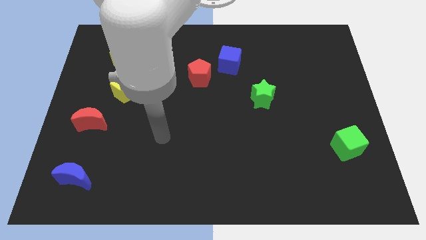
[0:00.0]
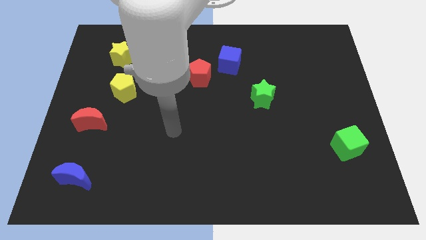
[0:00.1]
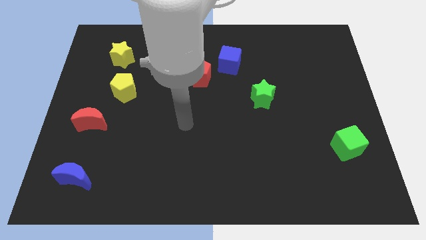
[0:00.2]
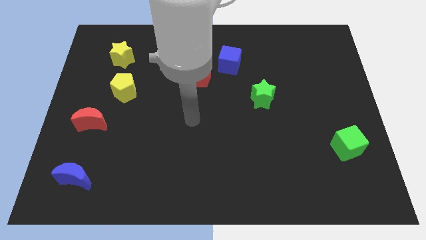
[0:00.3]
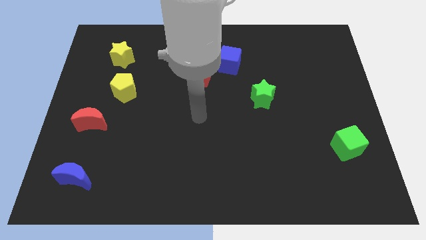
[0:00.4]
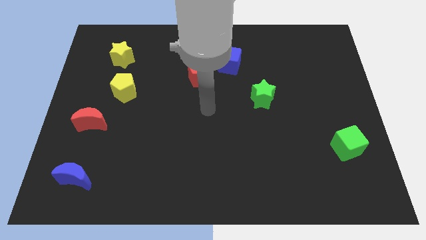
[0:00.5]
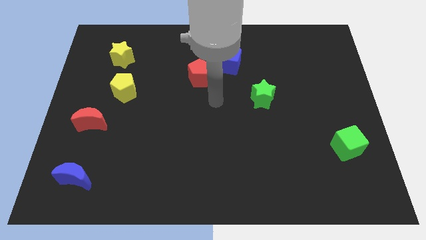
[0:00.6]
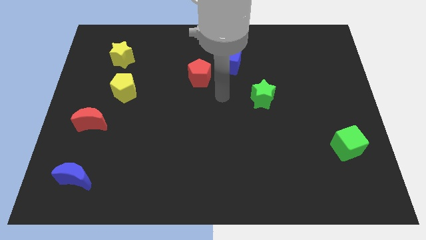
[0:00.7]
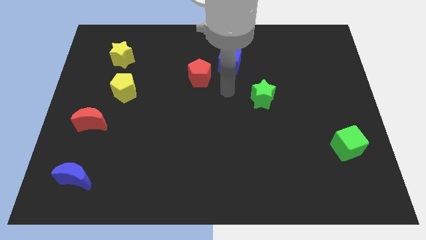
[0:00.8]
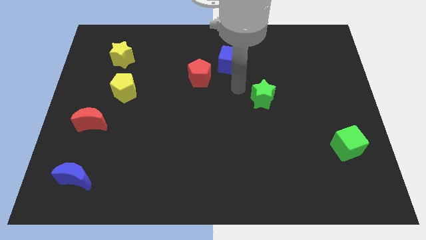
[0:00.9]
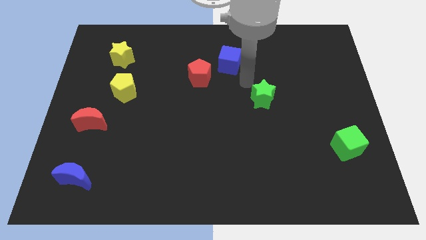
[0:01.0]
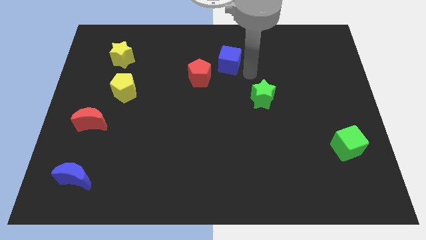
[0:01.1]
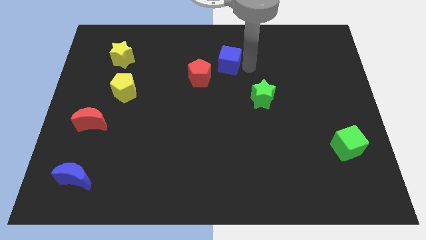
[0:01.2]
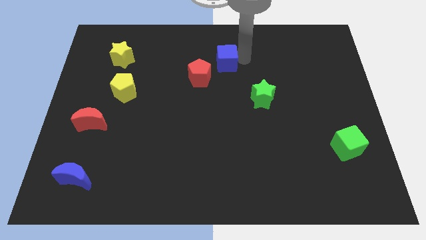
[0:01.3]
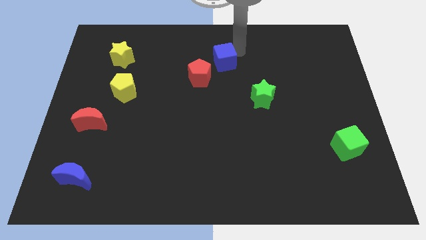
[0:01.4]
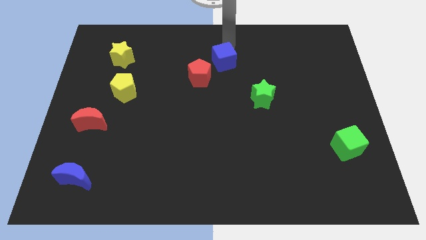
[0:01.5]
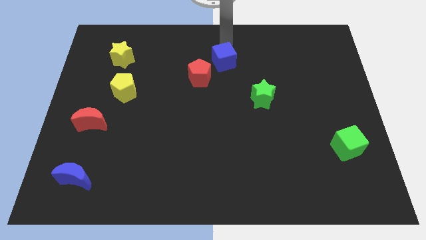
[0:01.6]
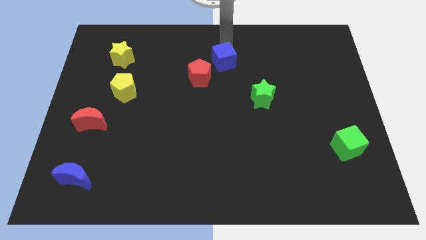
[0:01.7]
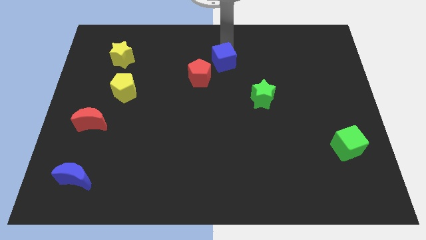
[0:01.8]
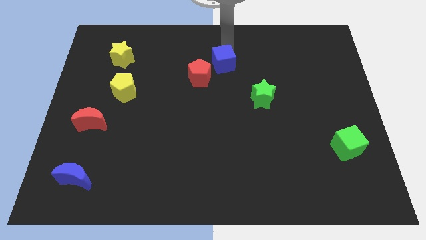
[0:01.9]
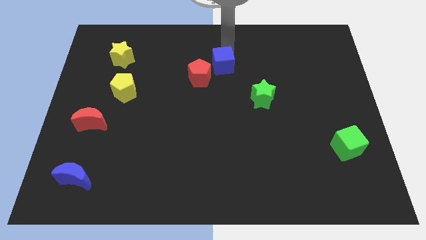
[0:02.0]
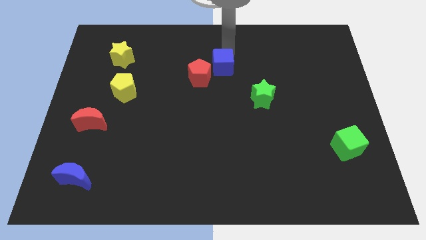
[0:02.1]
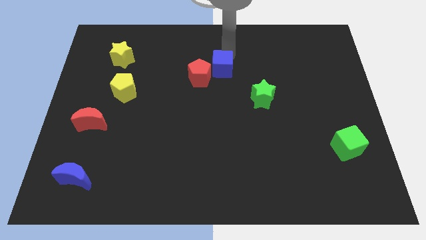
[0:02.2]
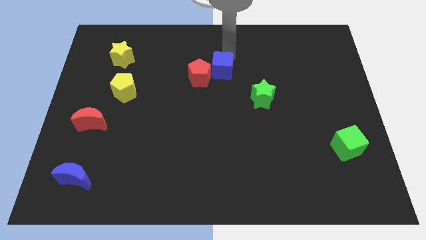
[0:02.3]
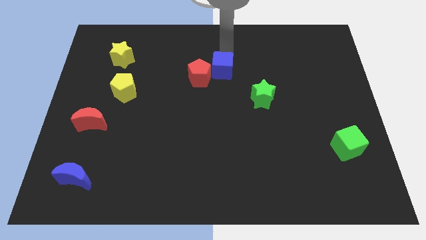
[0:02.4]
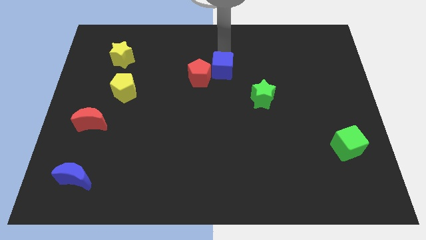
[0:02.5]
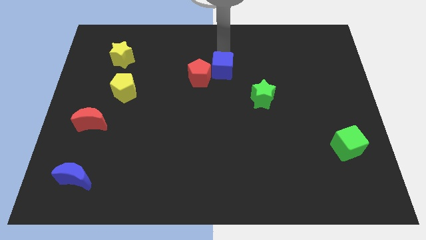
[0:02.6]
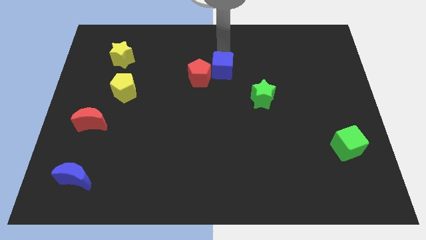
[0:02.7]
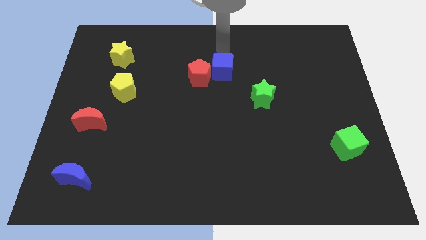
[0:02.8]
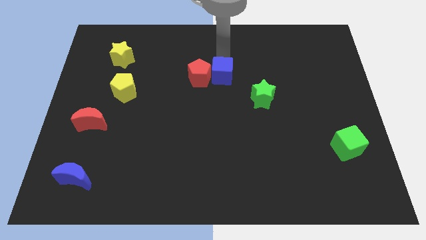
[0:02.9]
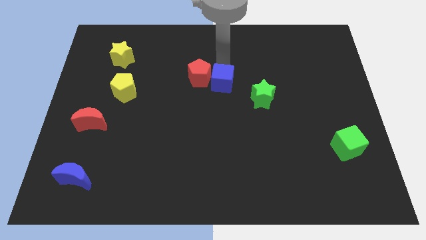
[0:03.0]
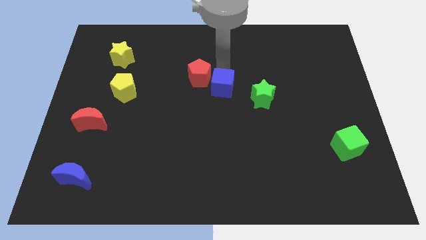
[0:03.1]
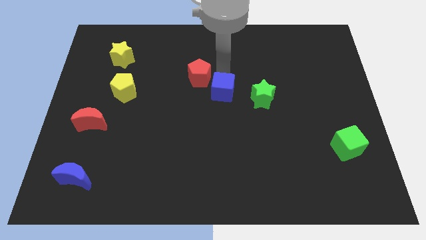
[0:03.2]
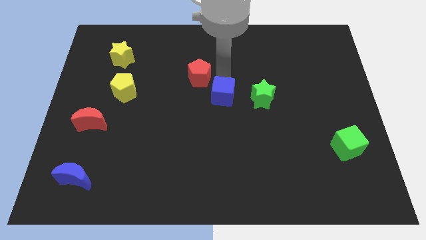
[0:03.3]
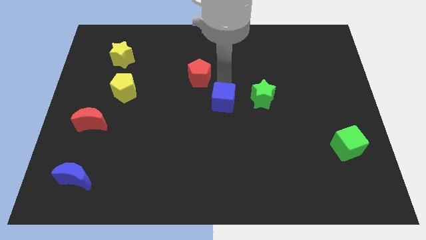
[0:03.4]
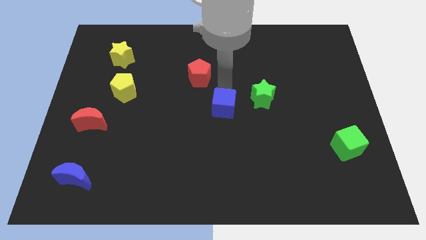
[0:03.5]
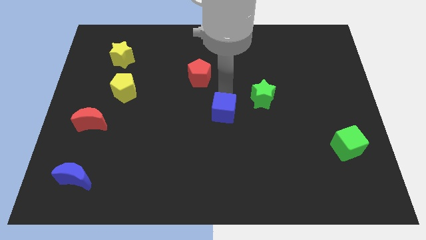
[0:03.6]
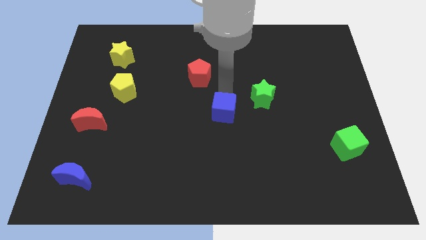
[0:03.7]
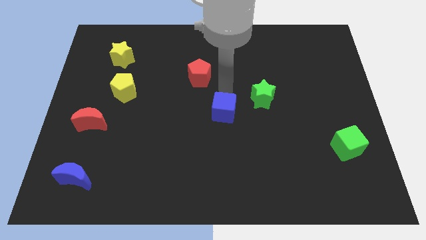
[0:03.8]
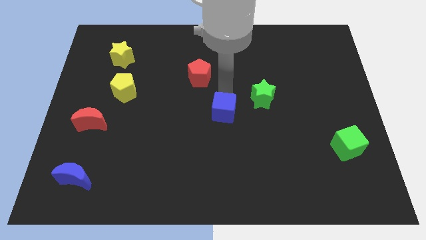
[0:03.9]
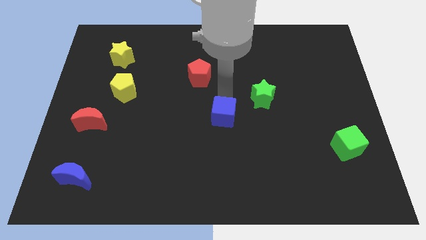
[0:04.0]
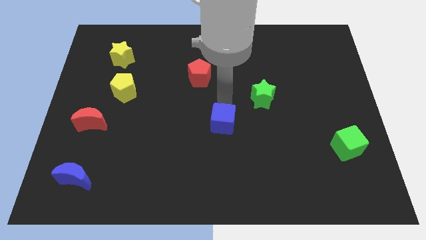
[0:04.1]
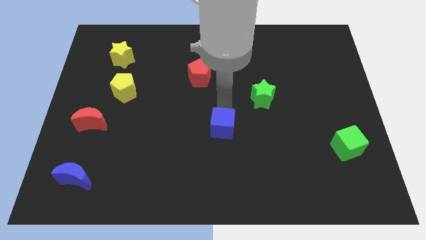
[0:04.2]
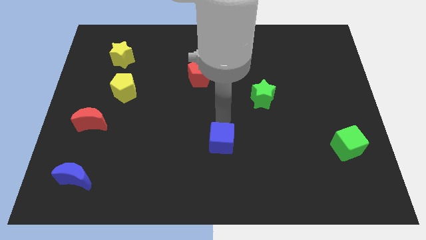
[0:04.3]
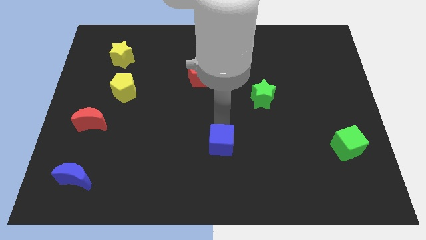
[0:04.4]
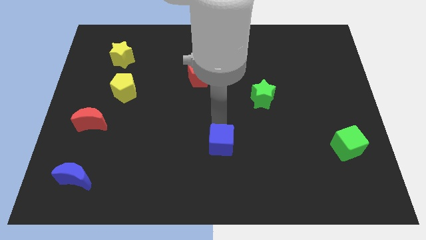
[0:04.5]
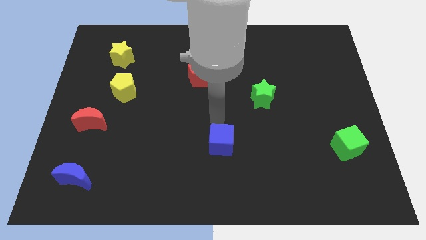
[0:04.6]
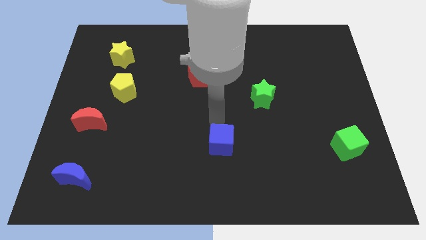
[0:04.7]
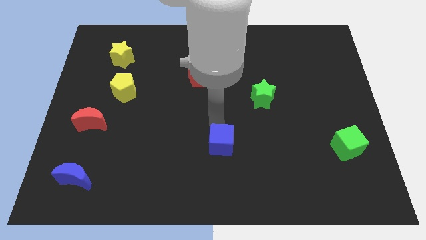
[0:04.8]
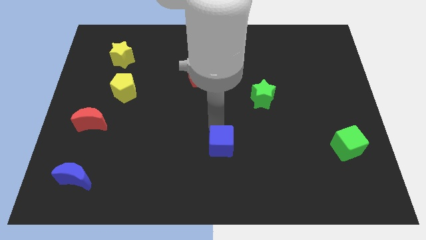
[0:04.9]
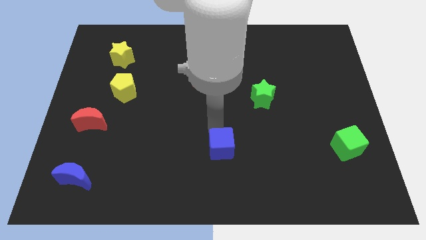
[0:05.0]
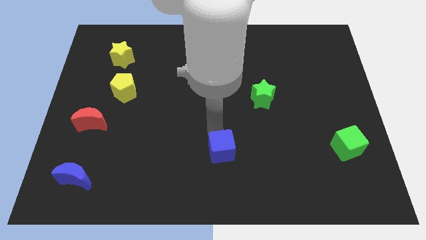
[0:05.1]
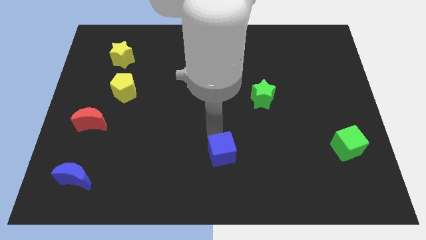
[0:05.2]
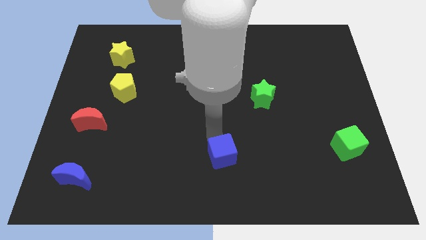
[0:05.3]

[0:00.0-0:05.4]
slide the blue cube to the bottom

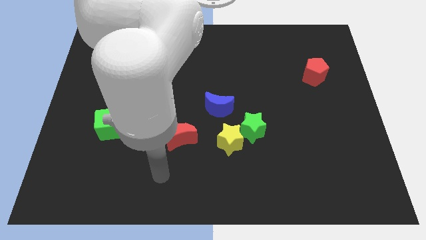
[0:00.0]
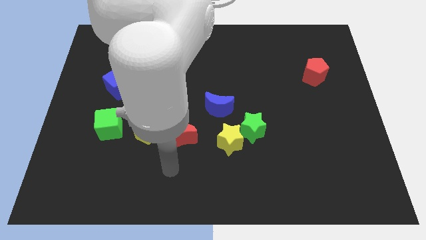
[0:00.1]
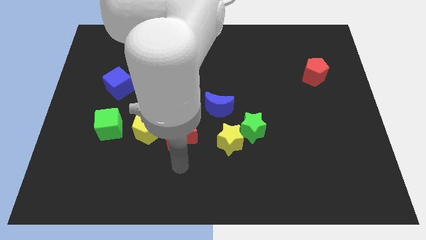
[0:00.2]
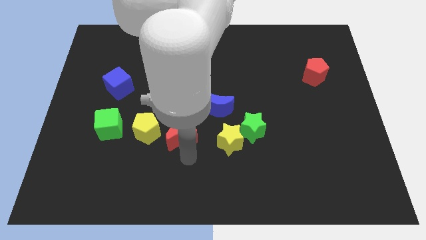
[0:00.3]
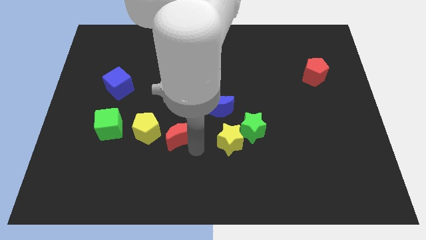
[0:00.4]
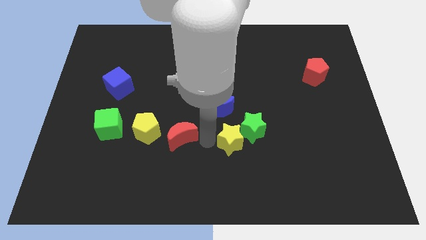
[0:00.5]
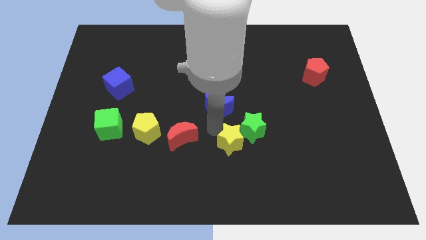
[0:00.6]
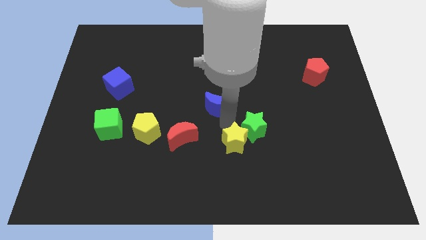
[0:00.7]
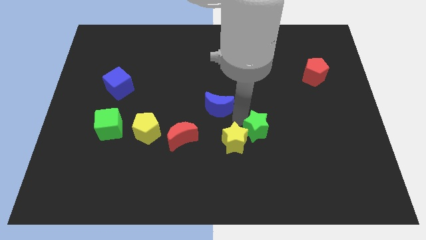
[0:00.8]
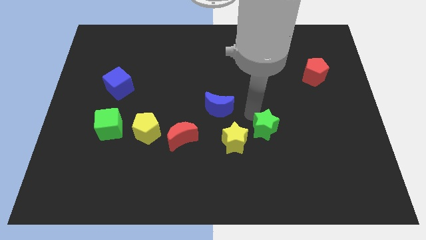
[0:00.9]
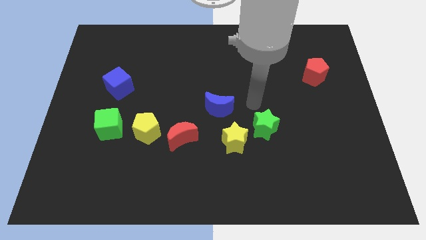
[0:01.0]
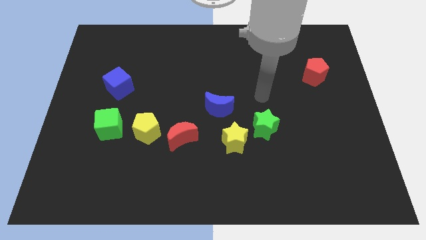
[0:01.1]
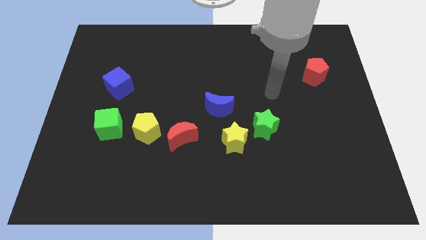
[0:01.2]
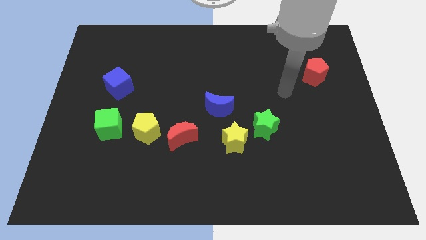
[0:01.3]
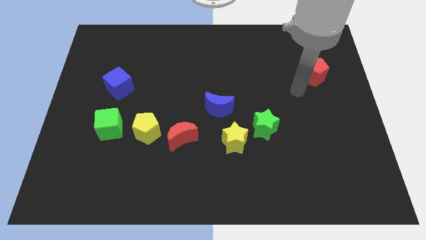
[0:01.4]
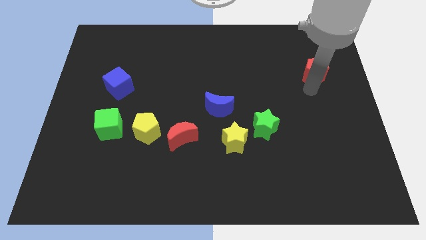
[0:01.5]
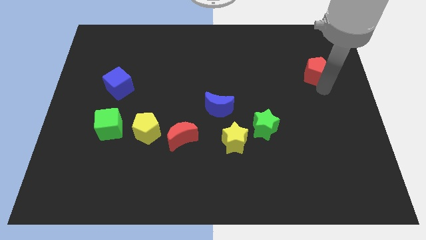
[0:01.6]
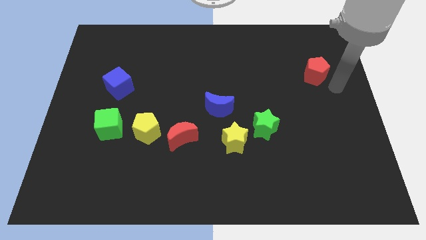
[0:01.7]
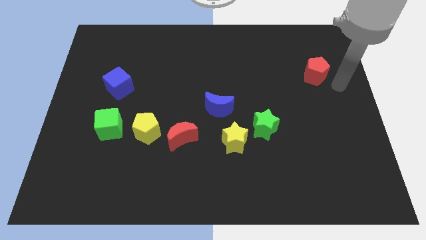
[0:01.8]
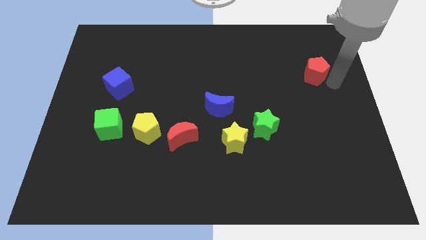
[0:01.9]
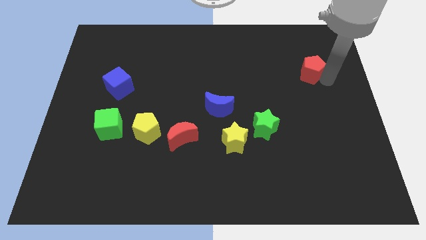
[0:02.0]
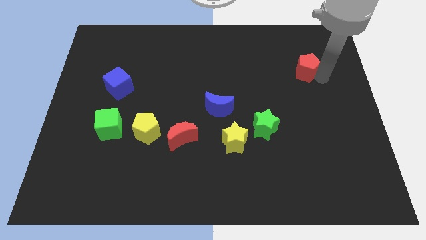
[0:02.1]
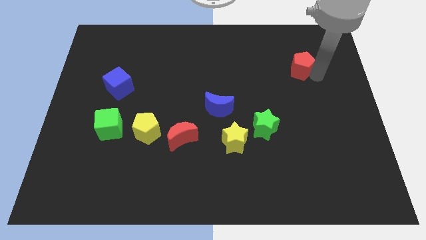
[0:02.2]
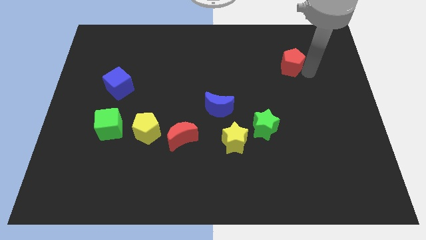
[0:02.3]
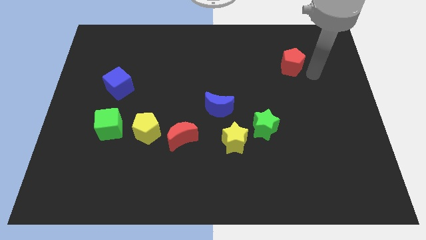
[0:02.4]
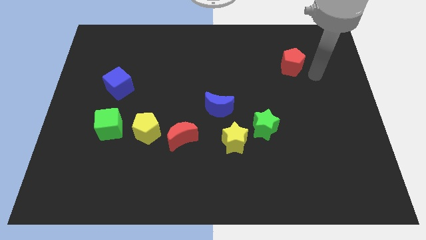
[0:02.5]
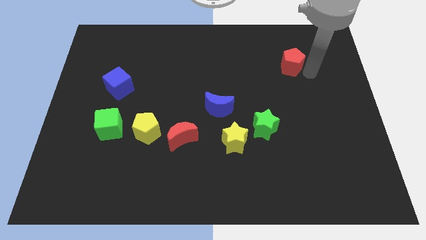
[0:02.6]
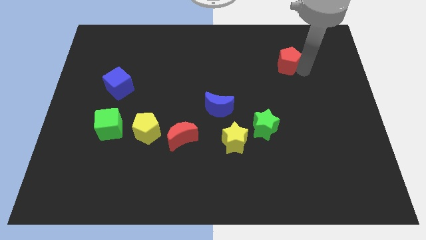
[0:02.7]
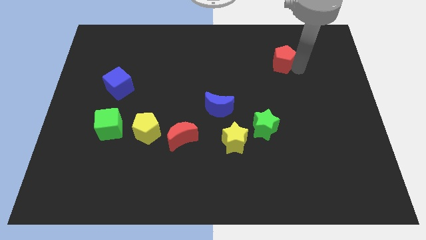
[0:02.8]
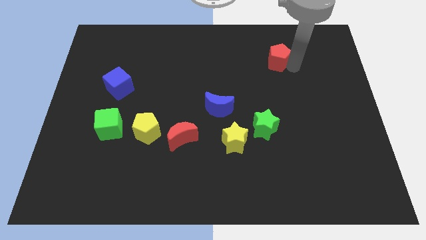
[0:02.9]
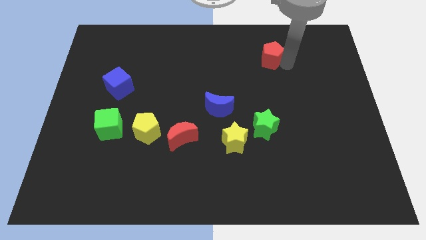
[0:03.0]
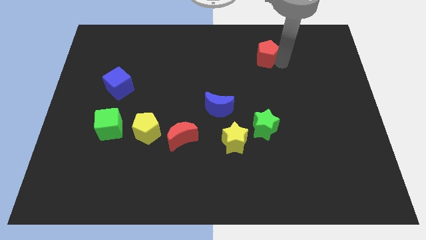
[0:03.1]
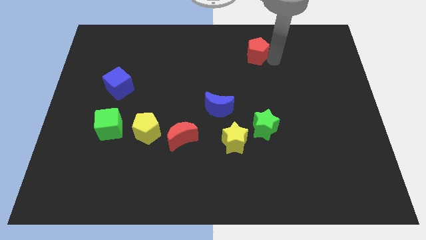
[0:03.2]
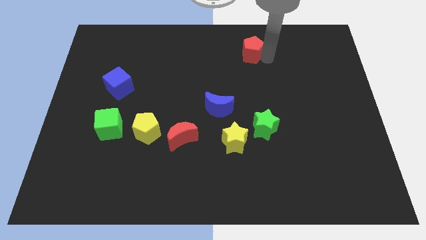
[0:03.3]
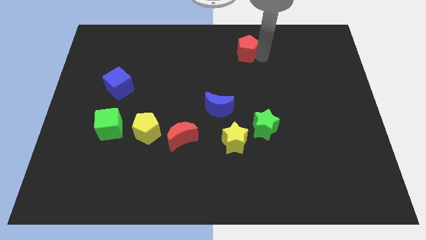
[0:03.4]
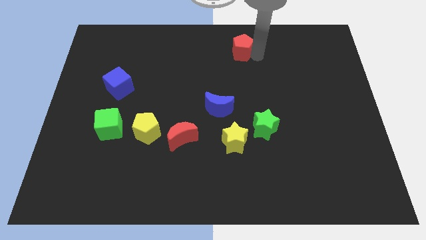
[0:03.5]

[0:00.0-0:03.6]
push the red pentagon to the towards your base
